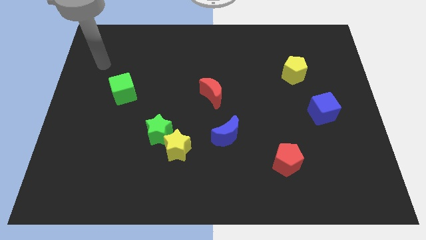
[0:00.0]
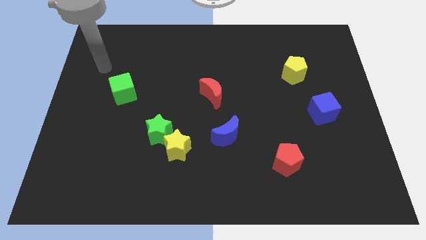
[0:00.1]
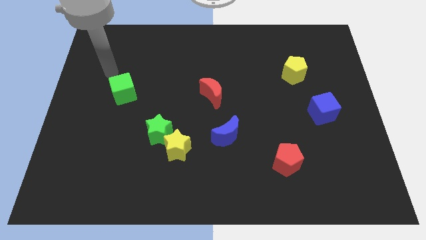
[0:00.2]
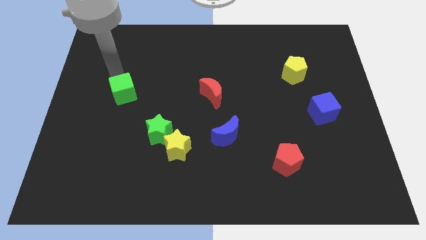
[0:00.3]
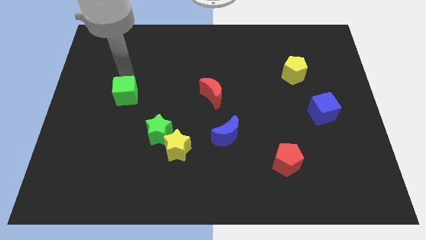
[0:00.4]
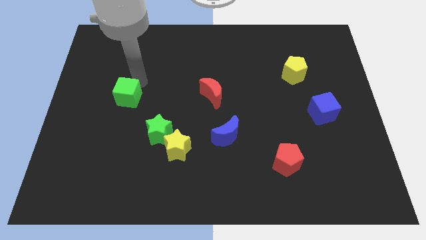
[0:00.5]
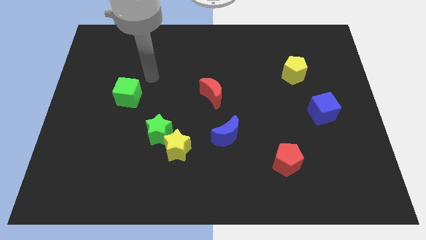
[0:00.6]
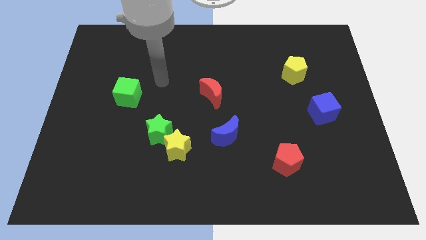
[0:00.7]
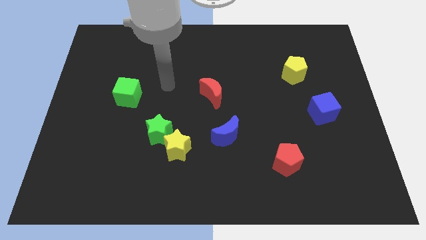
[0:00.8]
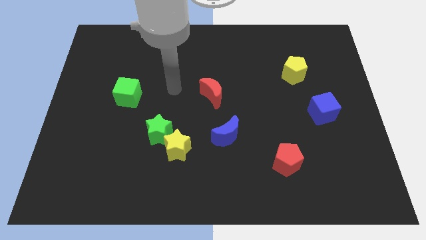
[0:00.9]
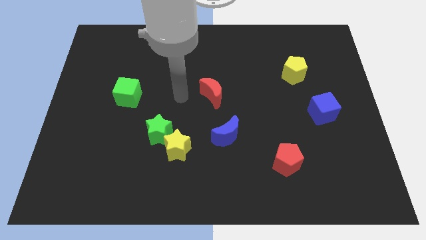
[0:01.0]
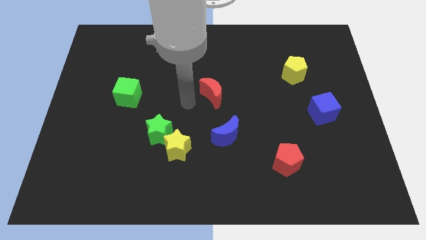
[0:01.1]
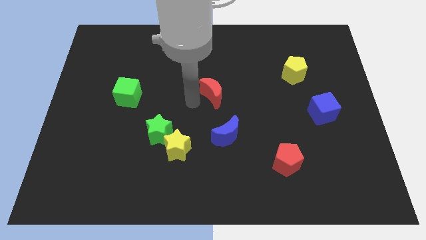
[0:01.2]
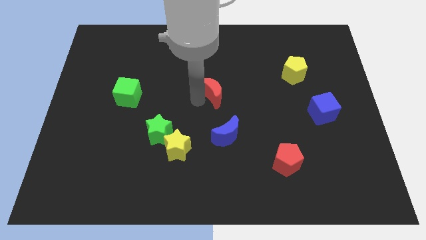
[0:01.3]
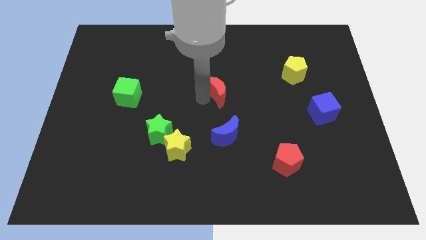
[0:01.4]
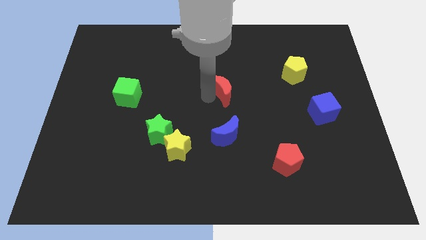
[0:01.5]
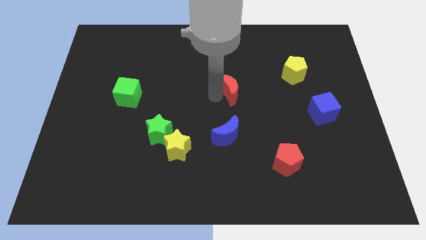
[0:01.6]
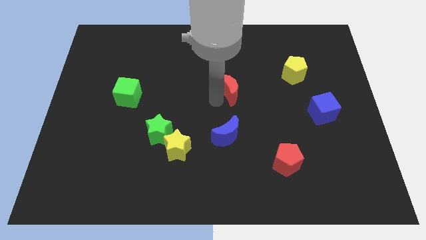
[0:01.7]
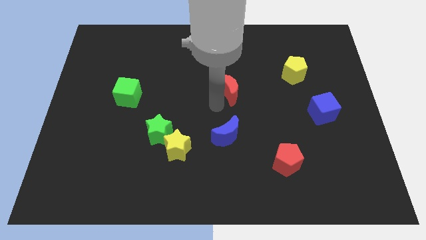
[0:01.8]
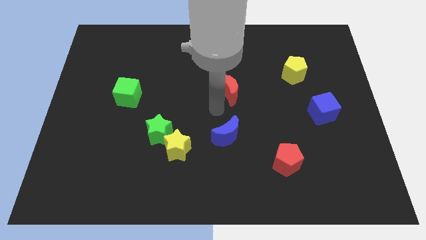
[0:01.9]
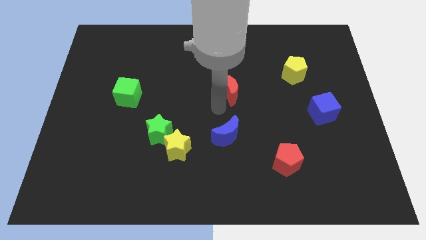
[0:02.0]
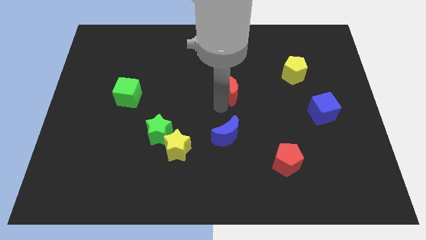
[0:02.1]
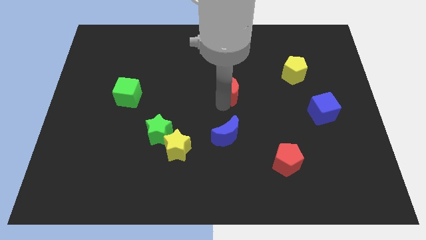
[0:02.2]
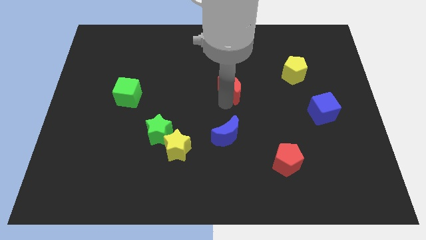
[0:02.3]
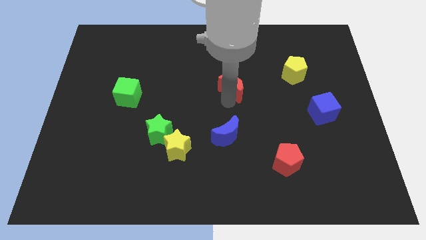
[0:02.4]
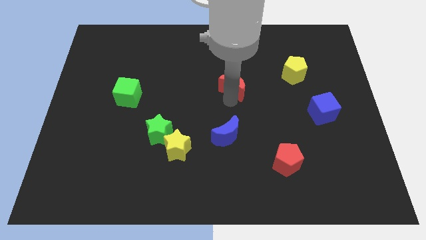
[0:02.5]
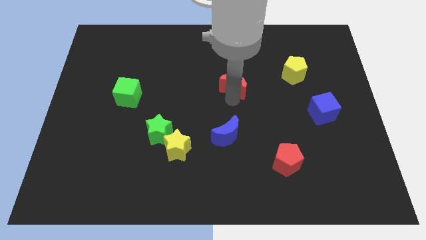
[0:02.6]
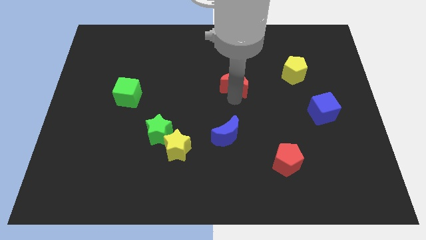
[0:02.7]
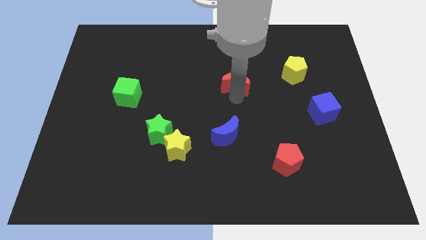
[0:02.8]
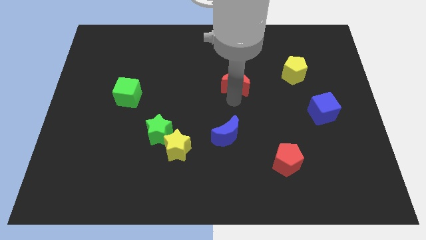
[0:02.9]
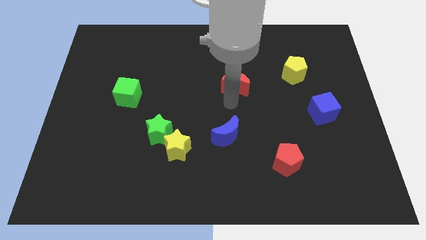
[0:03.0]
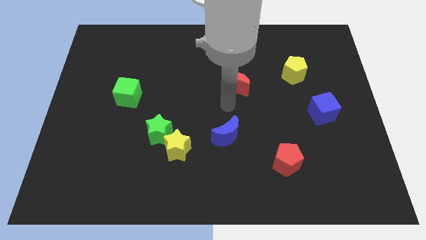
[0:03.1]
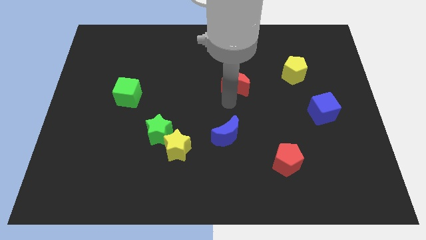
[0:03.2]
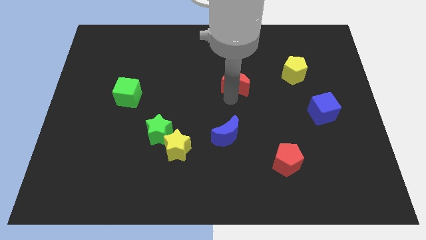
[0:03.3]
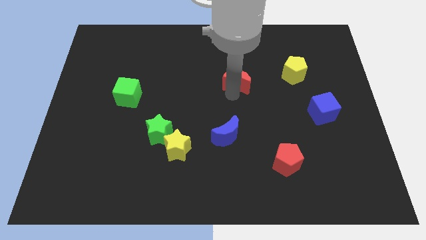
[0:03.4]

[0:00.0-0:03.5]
slightly slide the red moon diagonally up and to the right

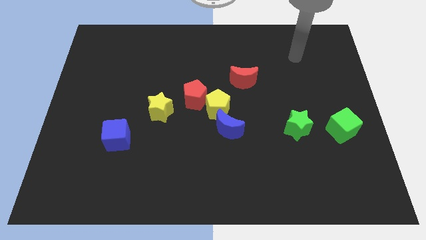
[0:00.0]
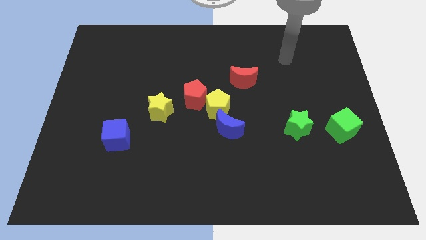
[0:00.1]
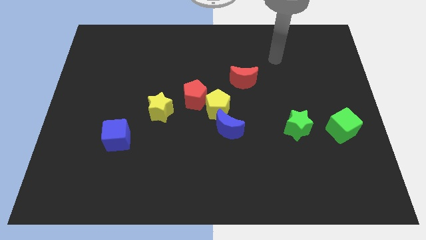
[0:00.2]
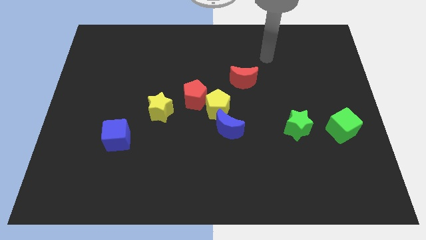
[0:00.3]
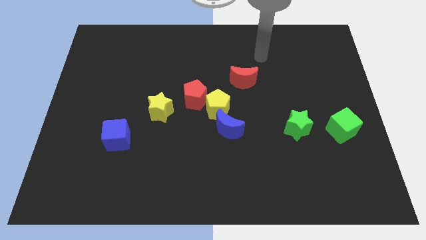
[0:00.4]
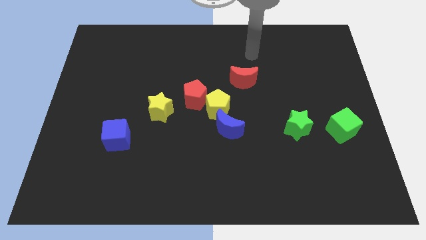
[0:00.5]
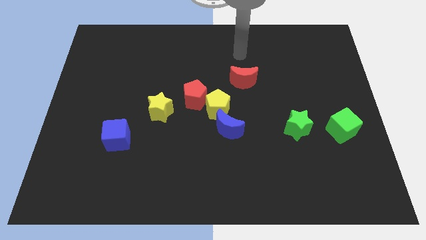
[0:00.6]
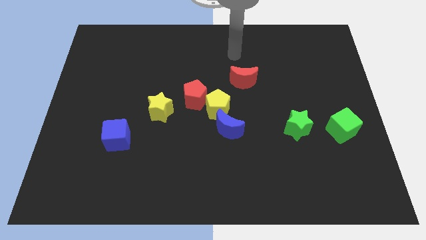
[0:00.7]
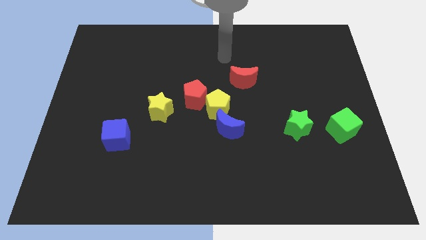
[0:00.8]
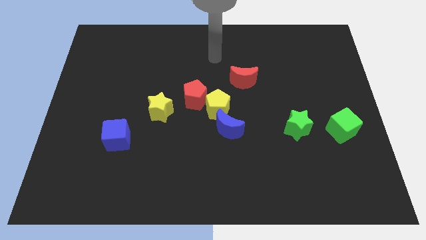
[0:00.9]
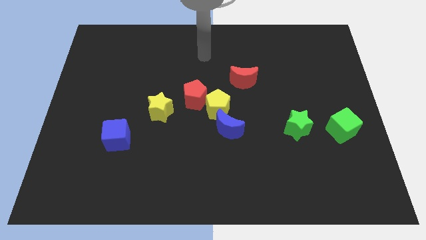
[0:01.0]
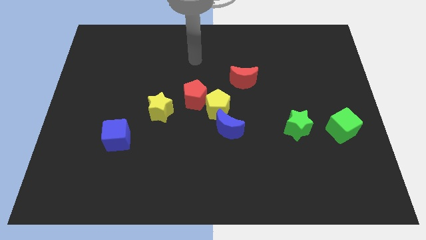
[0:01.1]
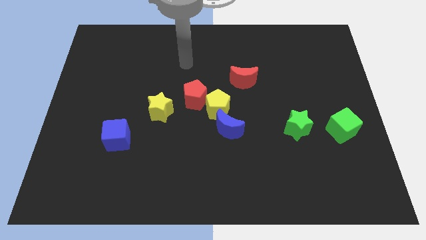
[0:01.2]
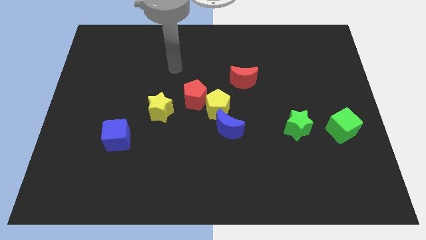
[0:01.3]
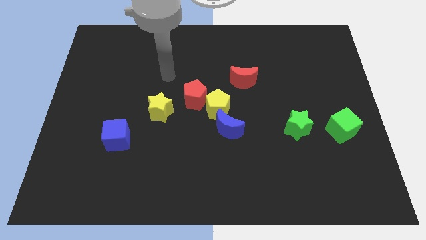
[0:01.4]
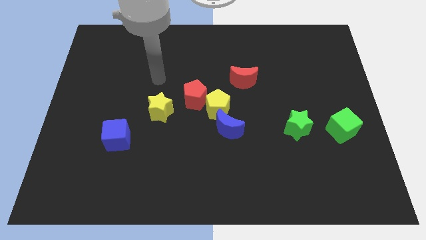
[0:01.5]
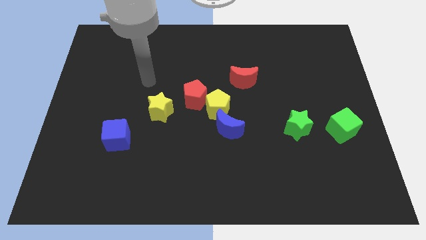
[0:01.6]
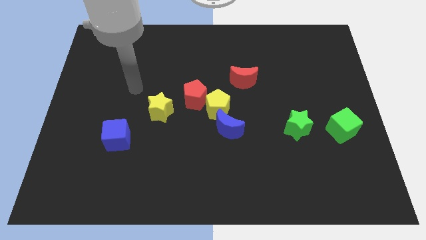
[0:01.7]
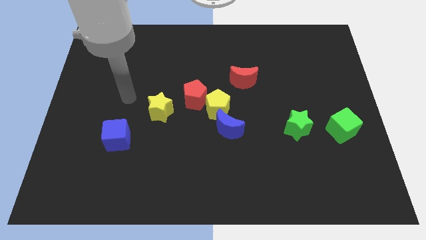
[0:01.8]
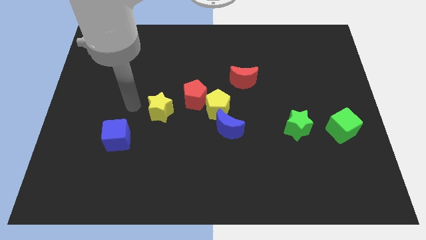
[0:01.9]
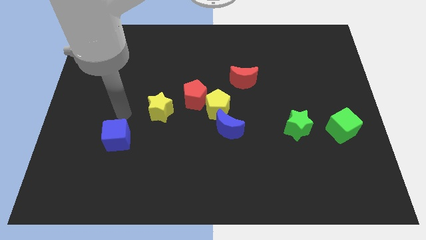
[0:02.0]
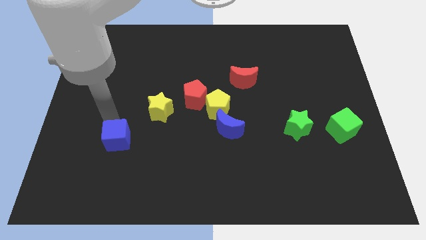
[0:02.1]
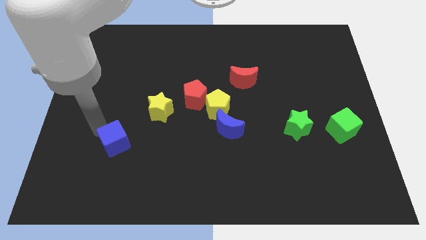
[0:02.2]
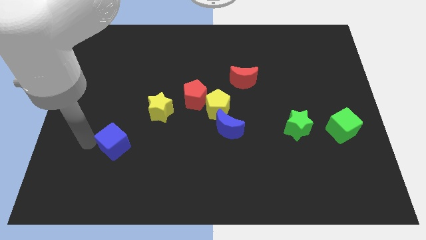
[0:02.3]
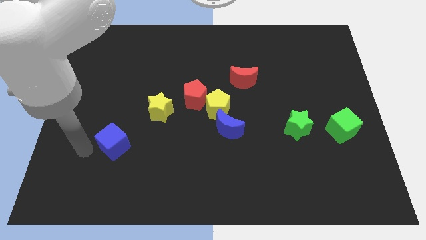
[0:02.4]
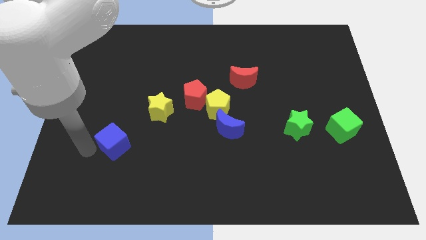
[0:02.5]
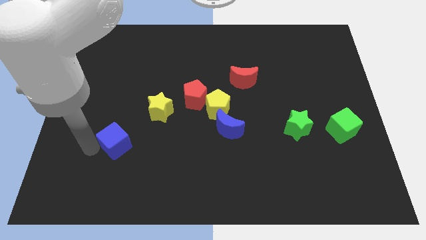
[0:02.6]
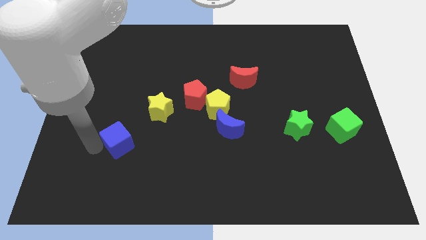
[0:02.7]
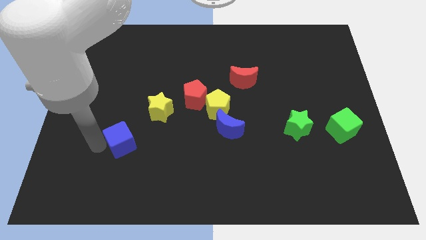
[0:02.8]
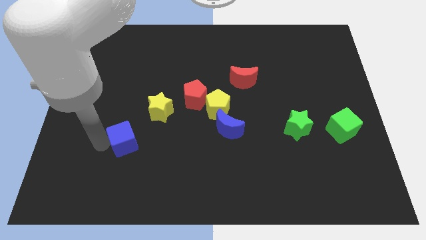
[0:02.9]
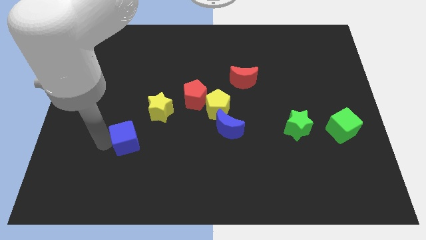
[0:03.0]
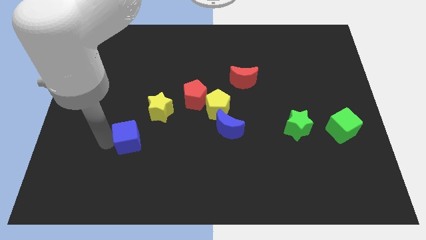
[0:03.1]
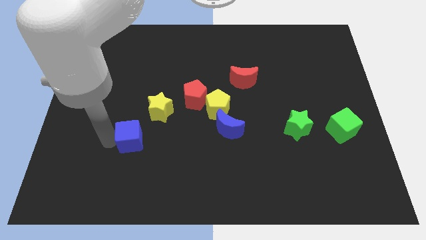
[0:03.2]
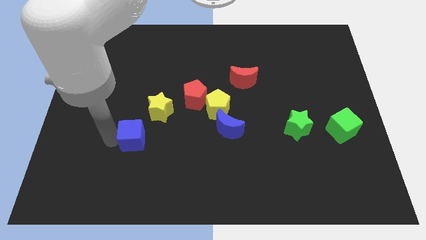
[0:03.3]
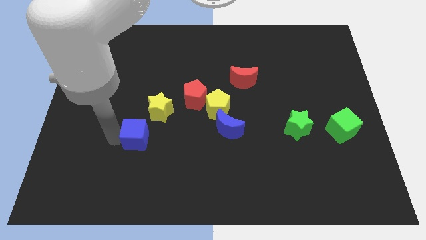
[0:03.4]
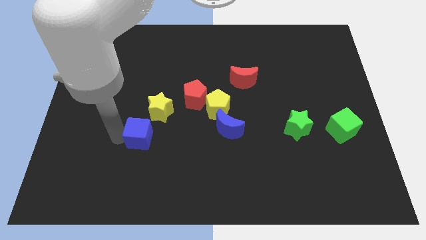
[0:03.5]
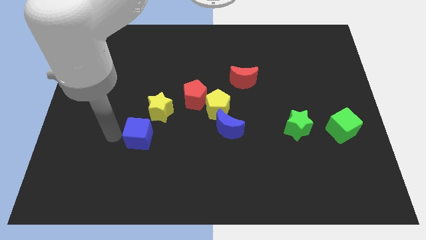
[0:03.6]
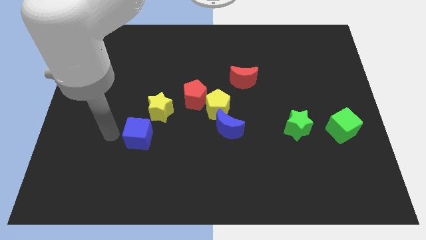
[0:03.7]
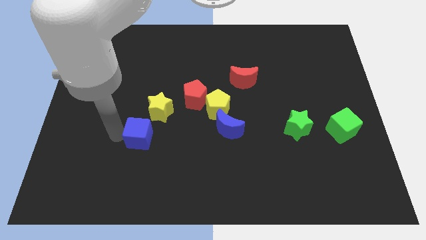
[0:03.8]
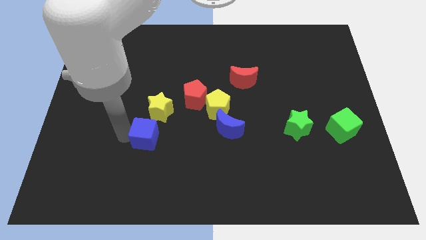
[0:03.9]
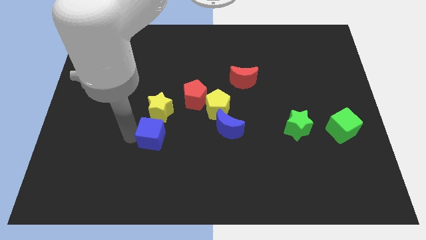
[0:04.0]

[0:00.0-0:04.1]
move the blue cube right a little bit

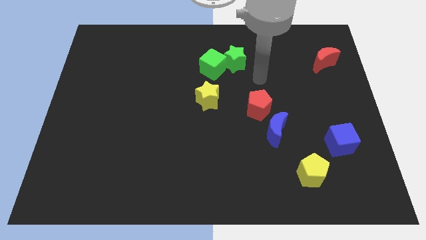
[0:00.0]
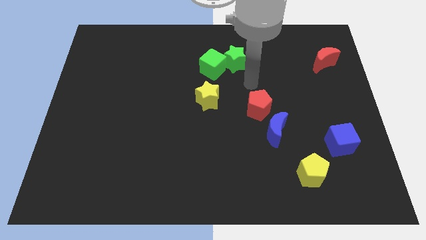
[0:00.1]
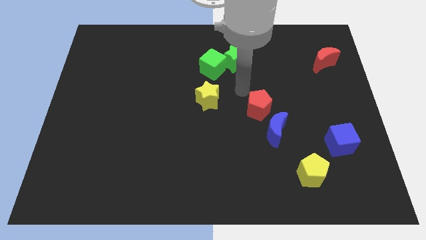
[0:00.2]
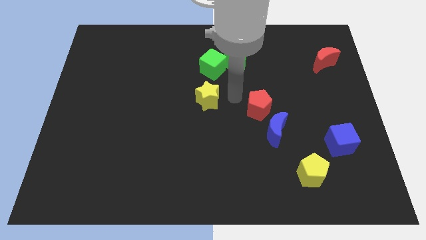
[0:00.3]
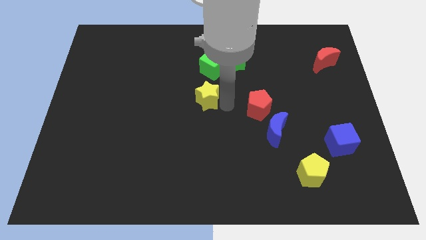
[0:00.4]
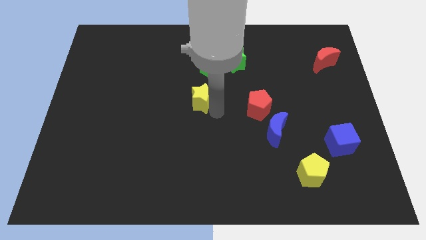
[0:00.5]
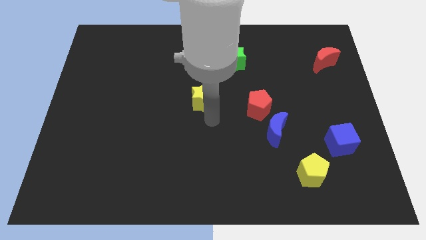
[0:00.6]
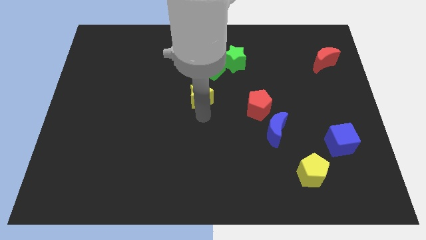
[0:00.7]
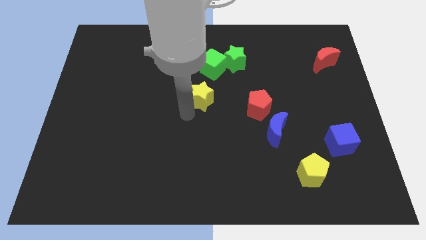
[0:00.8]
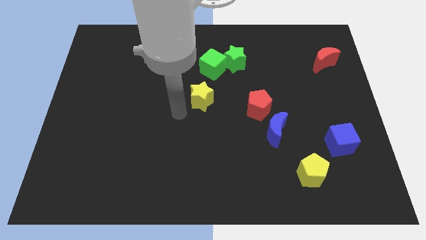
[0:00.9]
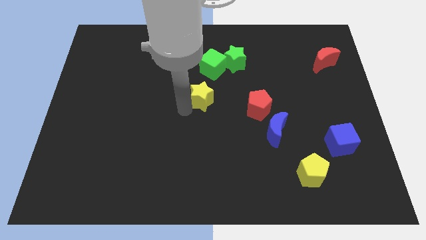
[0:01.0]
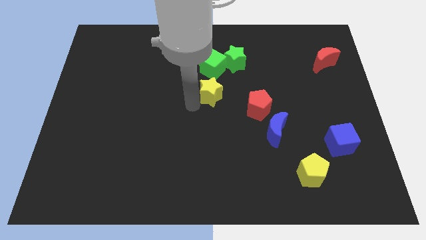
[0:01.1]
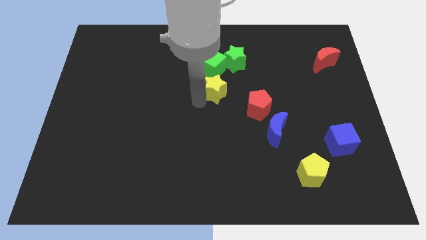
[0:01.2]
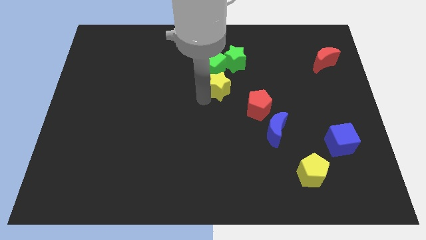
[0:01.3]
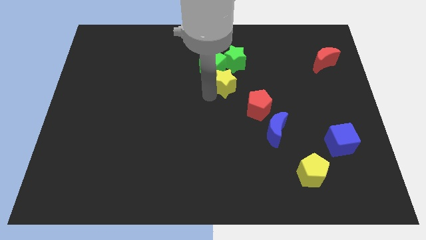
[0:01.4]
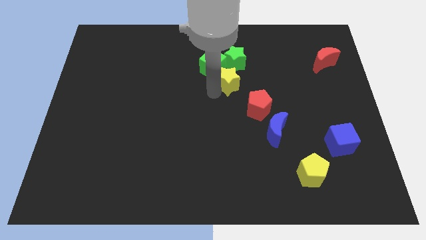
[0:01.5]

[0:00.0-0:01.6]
move the yellow star upwards and to the right a bit
